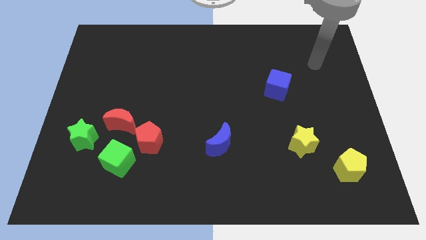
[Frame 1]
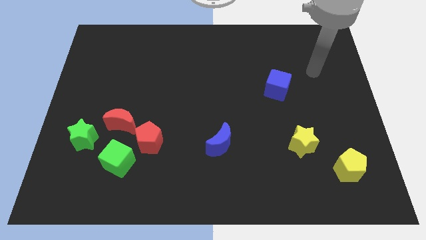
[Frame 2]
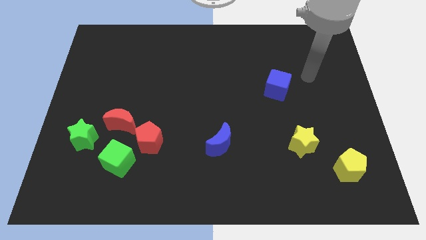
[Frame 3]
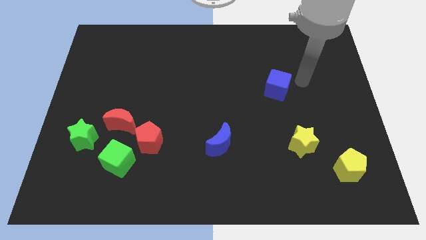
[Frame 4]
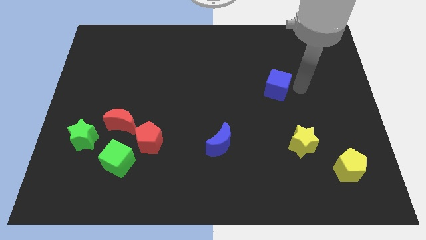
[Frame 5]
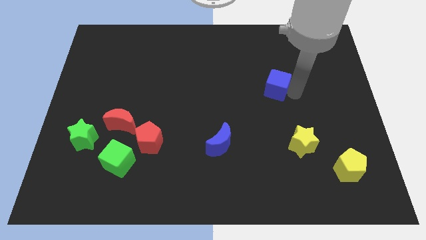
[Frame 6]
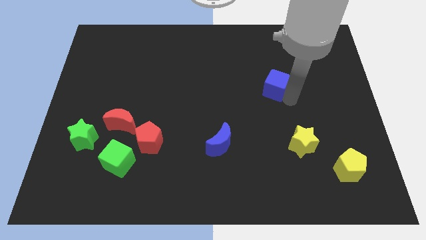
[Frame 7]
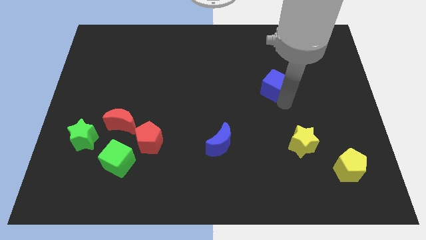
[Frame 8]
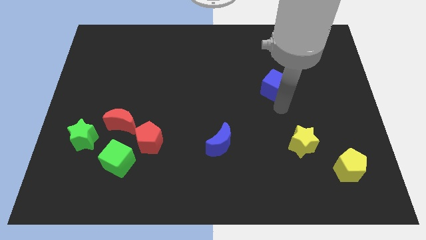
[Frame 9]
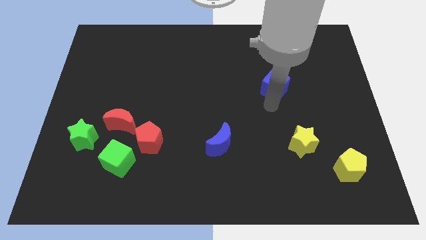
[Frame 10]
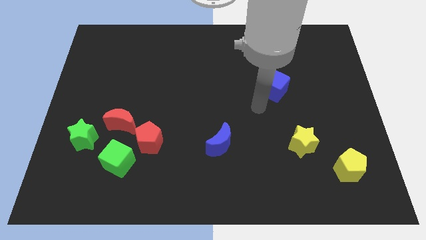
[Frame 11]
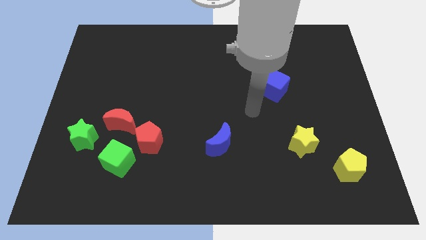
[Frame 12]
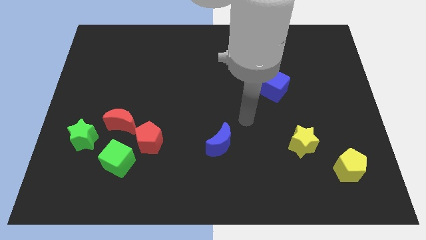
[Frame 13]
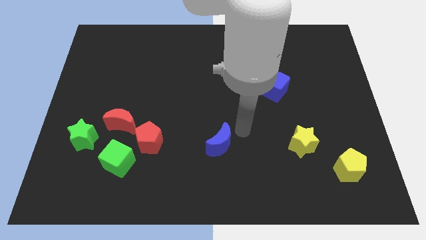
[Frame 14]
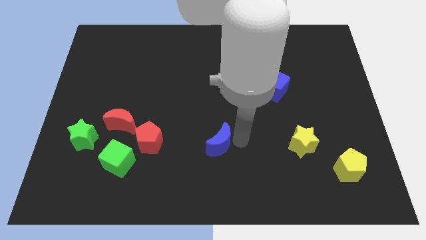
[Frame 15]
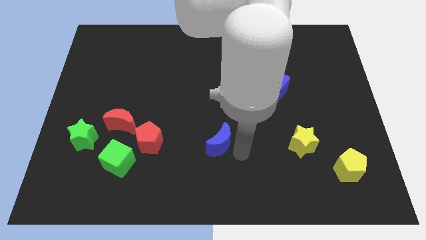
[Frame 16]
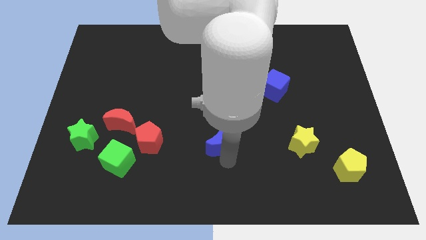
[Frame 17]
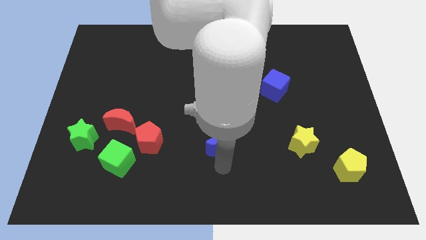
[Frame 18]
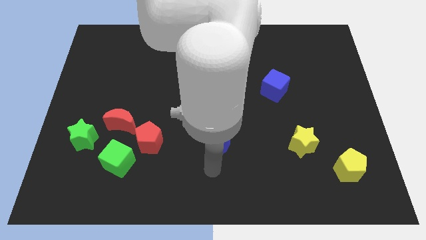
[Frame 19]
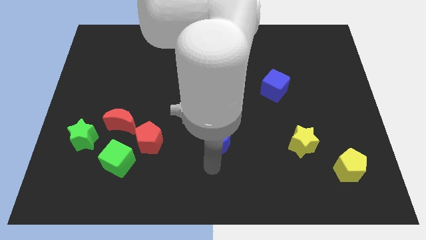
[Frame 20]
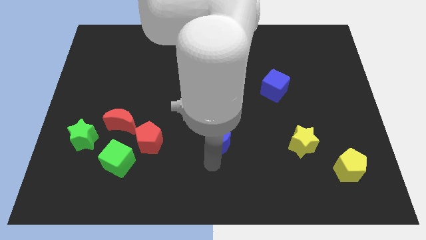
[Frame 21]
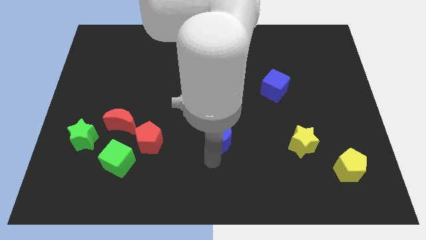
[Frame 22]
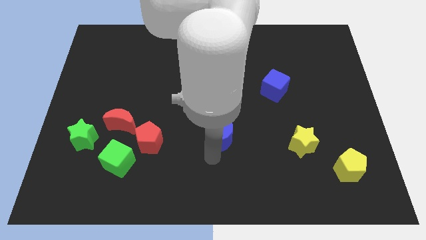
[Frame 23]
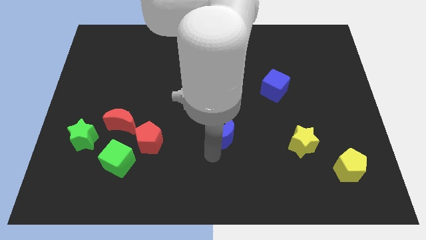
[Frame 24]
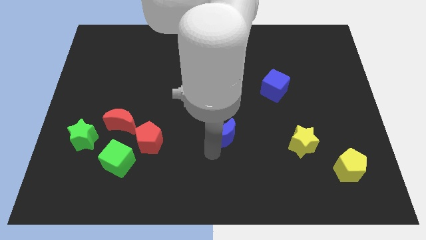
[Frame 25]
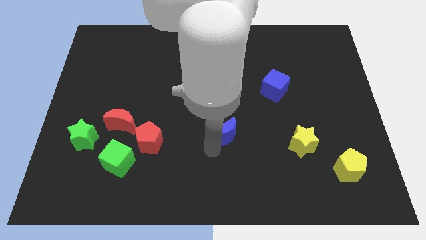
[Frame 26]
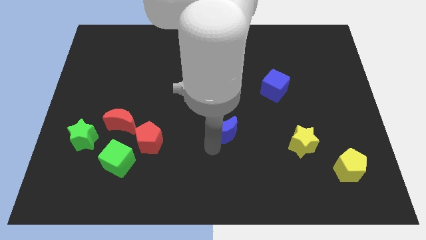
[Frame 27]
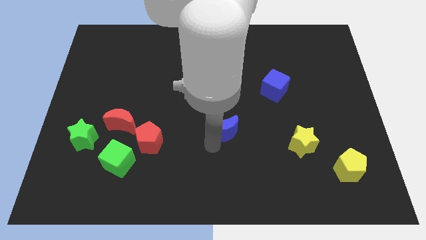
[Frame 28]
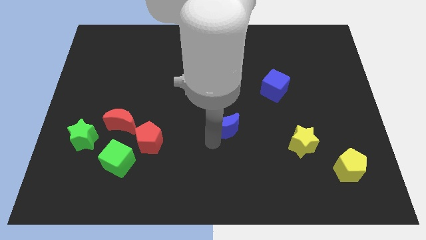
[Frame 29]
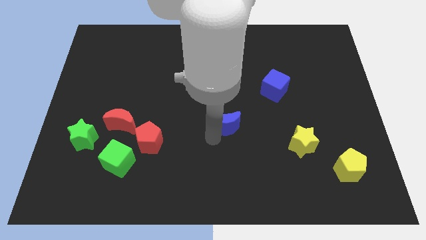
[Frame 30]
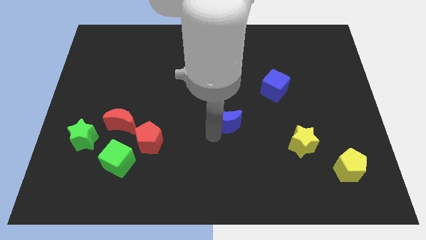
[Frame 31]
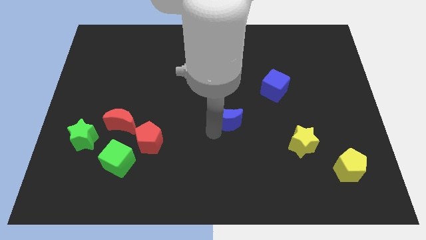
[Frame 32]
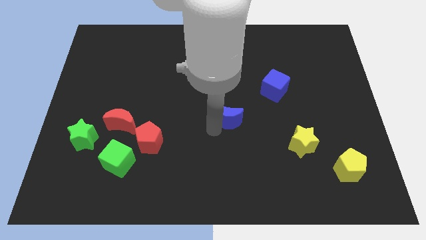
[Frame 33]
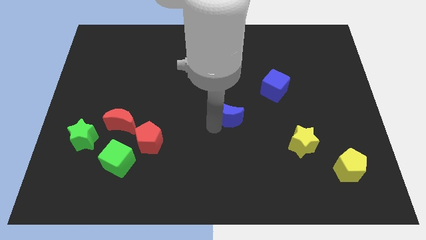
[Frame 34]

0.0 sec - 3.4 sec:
push the blue moon upwards a little bit

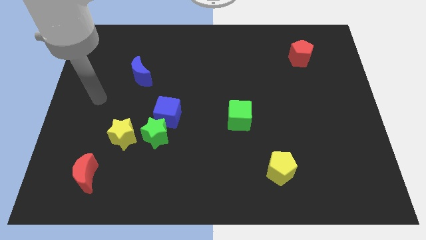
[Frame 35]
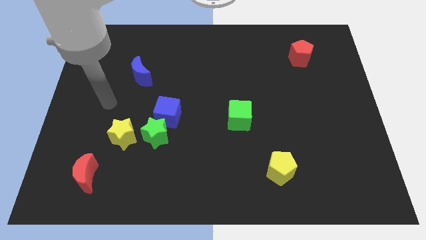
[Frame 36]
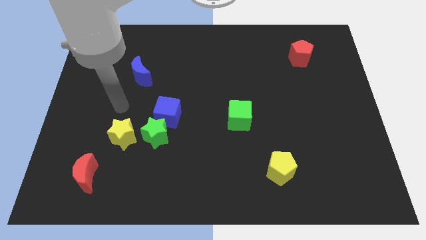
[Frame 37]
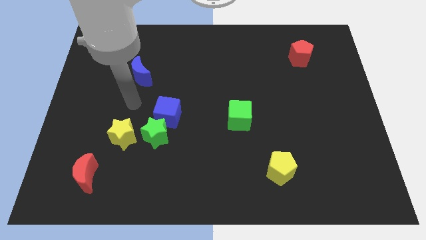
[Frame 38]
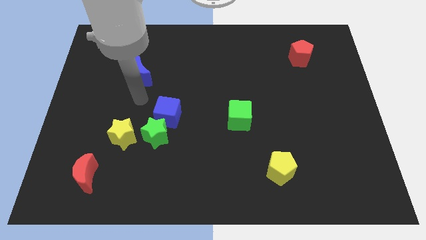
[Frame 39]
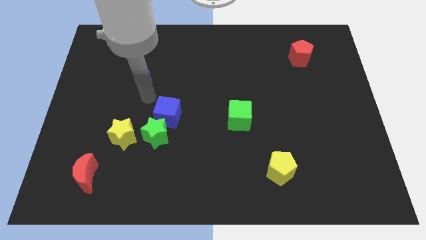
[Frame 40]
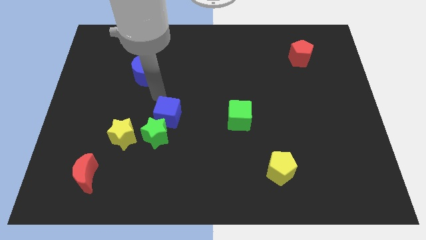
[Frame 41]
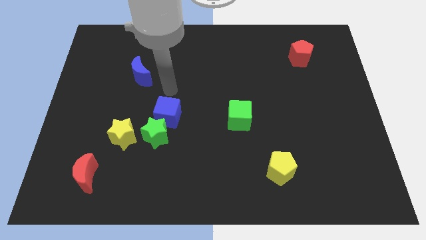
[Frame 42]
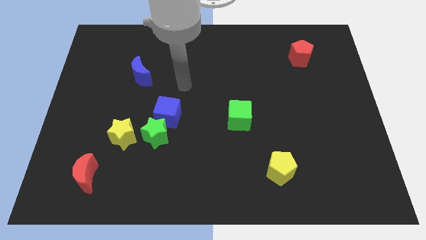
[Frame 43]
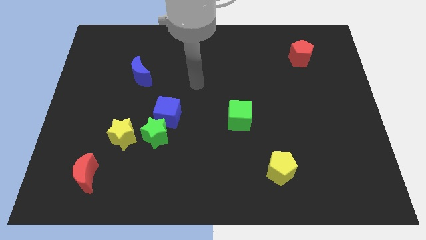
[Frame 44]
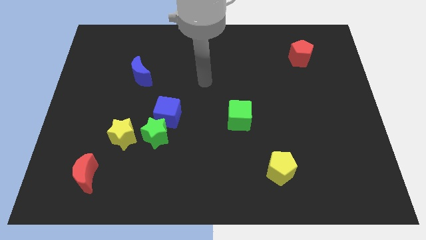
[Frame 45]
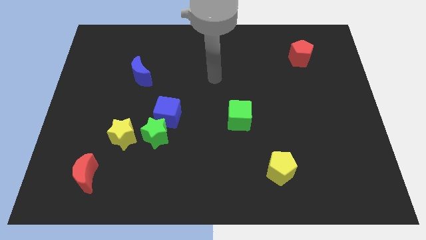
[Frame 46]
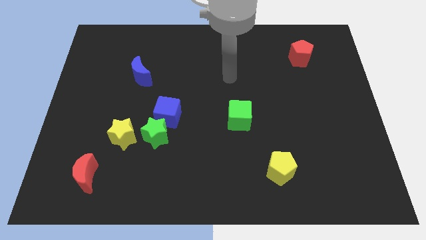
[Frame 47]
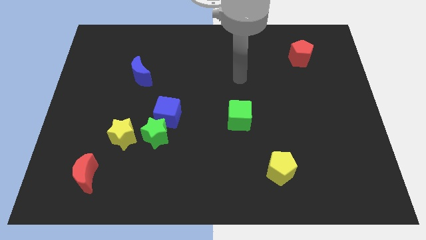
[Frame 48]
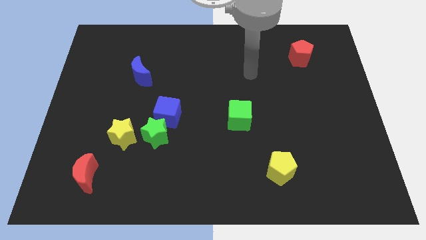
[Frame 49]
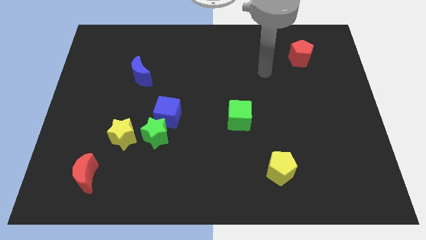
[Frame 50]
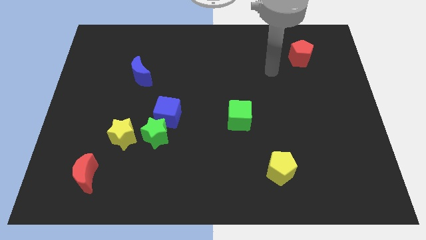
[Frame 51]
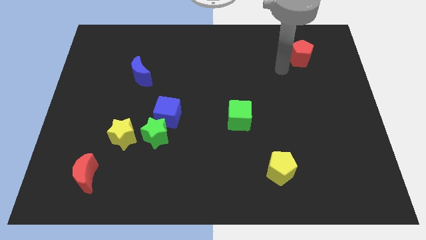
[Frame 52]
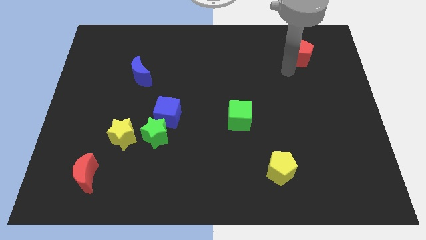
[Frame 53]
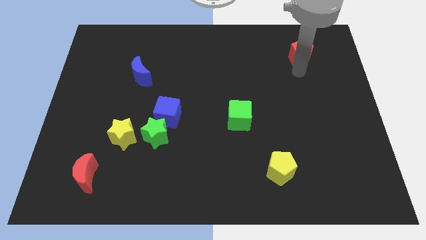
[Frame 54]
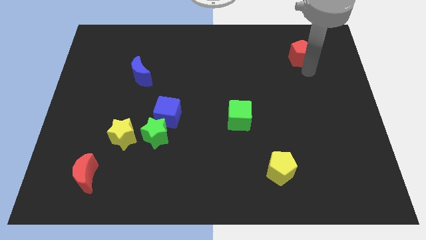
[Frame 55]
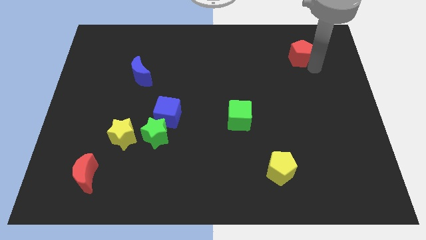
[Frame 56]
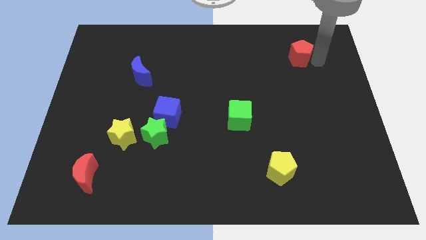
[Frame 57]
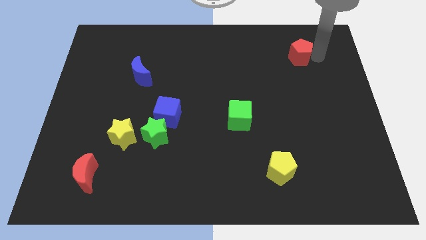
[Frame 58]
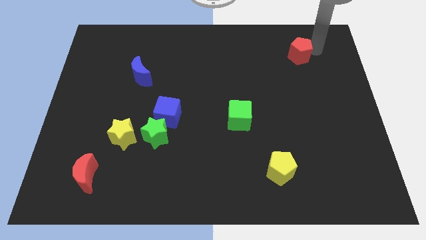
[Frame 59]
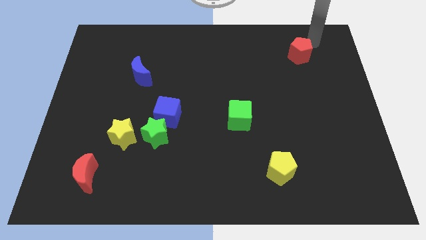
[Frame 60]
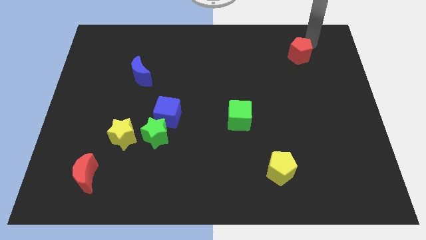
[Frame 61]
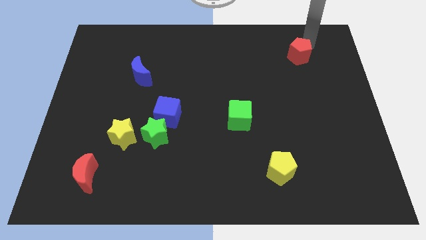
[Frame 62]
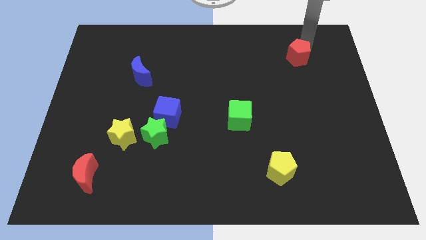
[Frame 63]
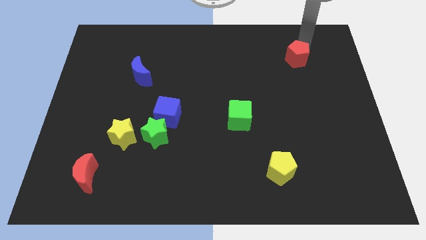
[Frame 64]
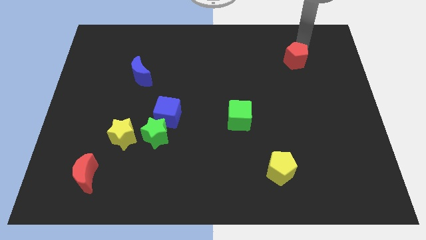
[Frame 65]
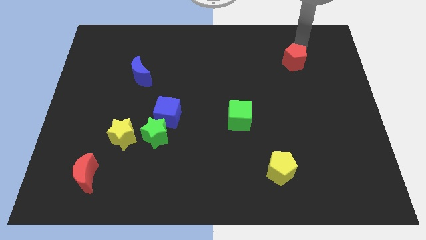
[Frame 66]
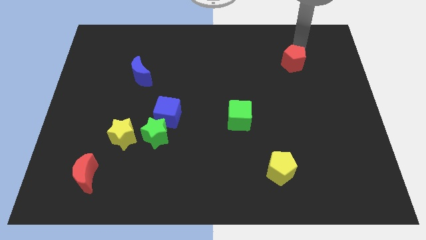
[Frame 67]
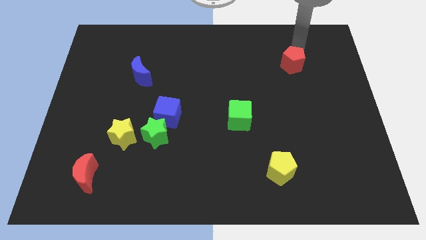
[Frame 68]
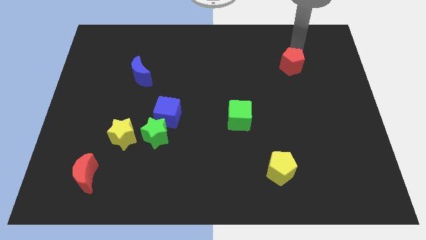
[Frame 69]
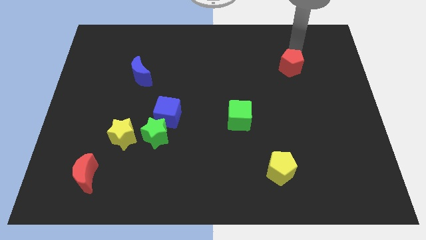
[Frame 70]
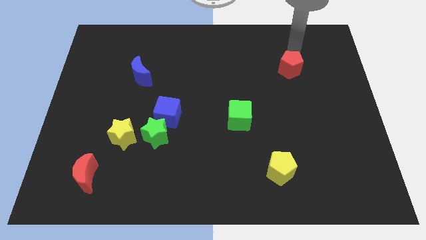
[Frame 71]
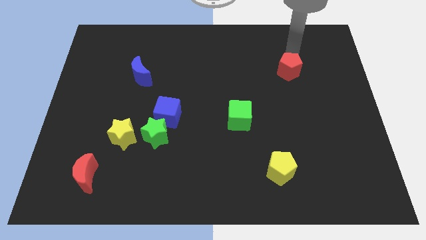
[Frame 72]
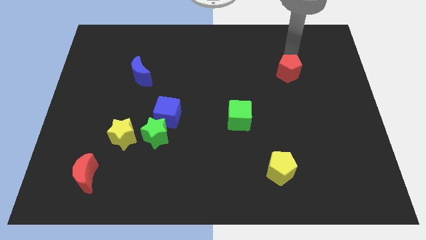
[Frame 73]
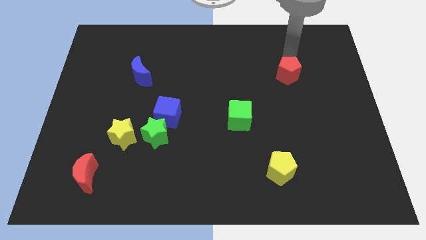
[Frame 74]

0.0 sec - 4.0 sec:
move the red pentagon down and to the left somewhat

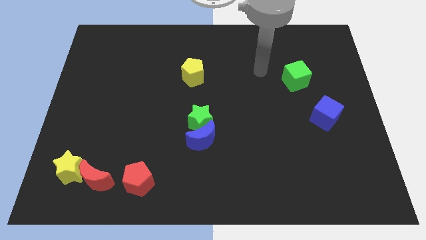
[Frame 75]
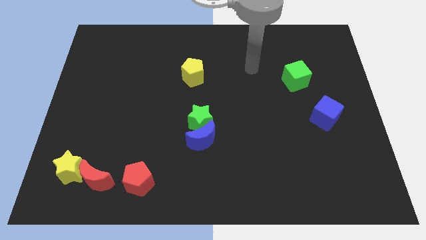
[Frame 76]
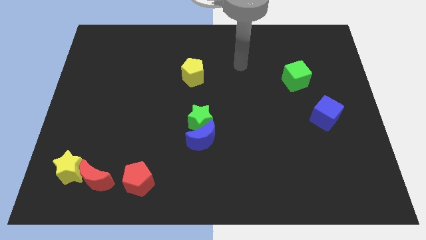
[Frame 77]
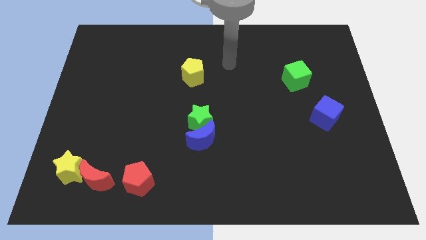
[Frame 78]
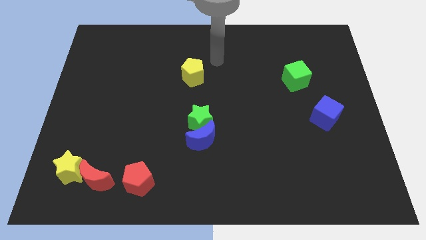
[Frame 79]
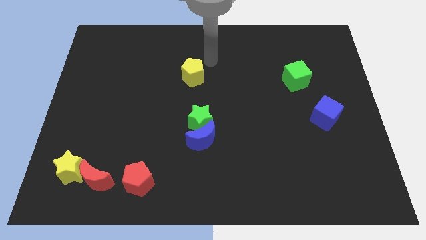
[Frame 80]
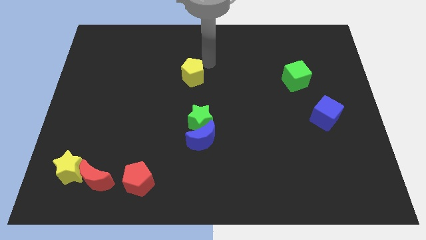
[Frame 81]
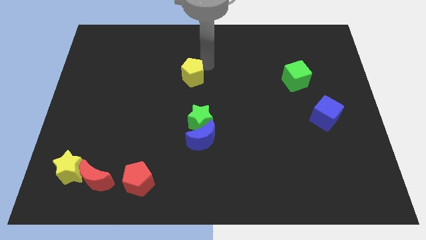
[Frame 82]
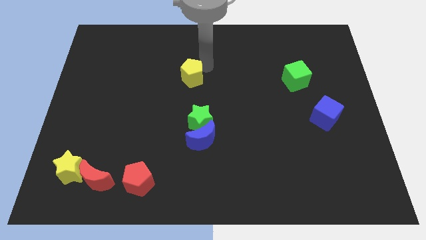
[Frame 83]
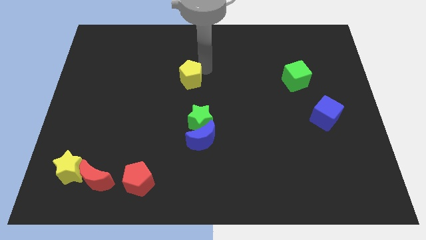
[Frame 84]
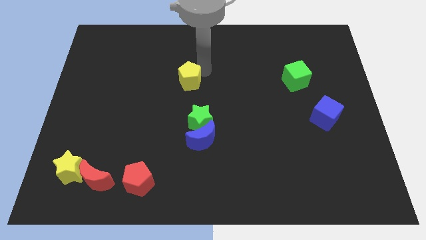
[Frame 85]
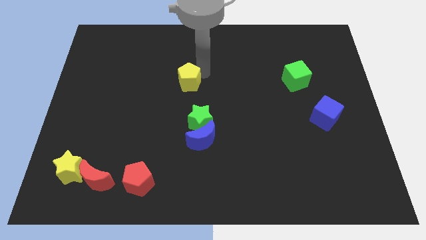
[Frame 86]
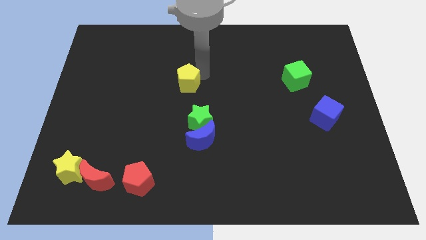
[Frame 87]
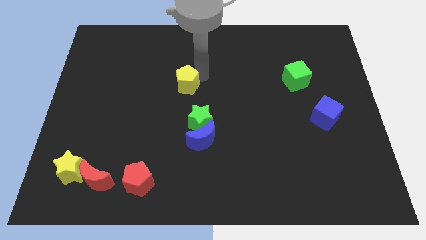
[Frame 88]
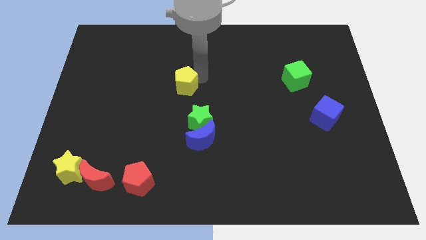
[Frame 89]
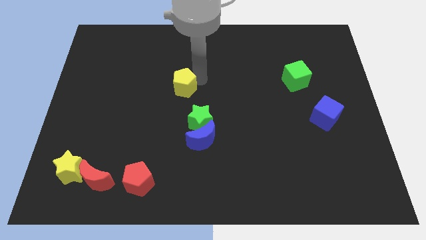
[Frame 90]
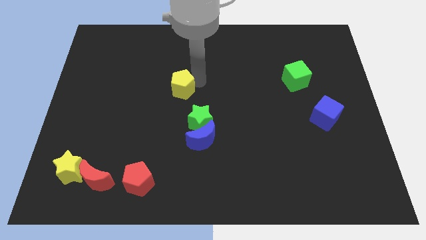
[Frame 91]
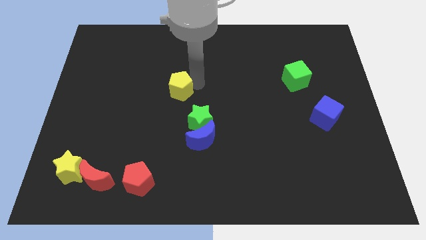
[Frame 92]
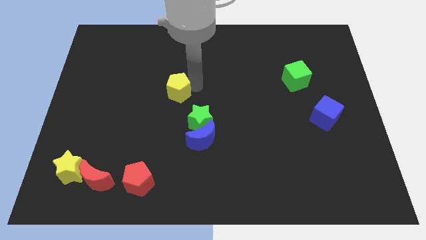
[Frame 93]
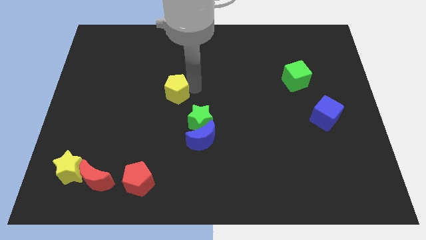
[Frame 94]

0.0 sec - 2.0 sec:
move the yellow pentagon diagonally downwards and left a little
